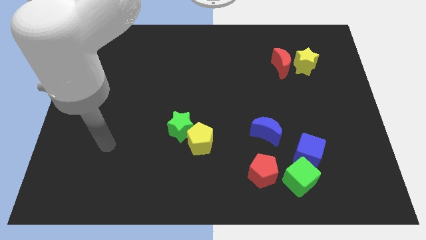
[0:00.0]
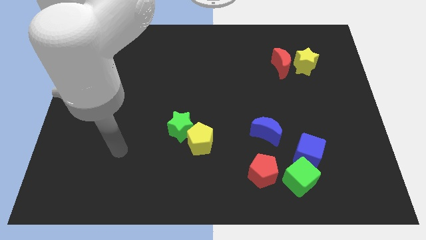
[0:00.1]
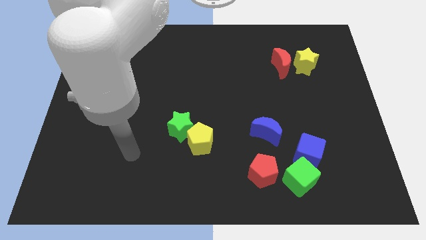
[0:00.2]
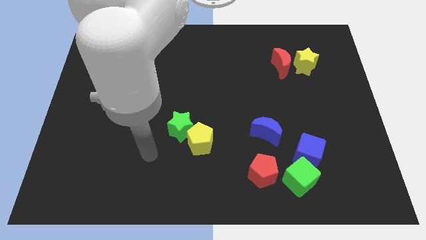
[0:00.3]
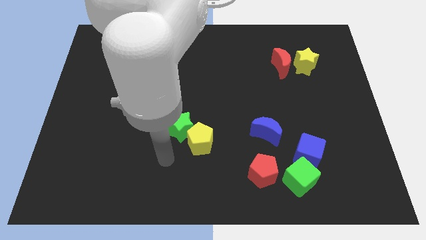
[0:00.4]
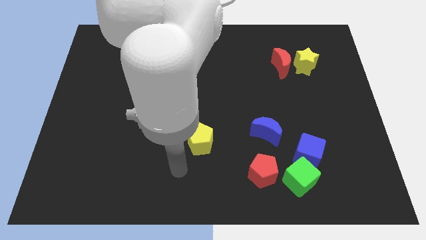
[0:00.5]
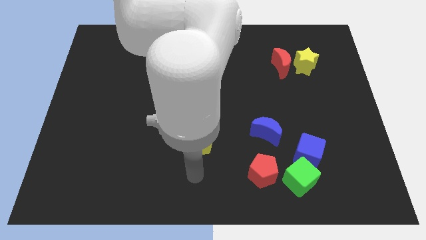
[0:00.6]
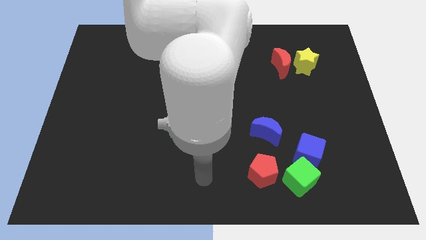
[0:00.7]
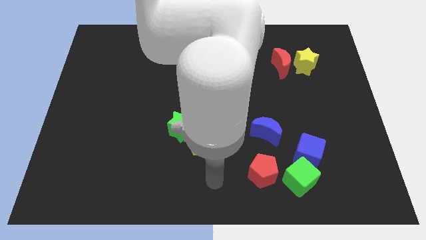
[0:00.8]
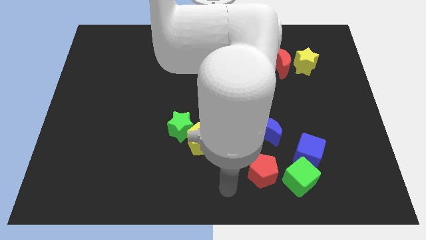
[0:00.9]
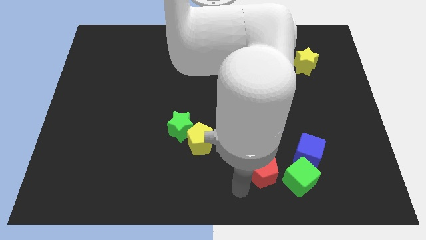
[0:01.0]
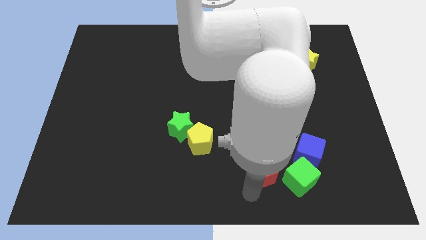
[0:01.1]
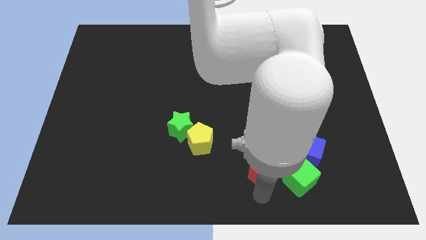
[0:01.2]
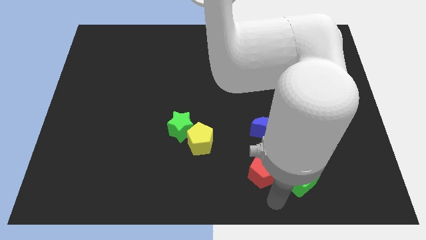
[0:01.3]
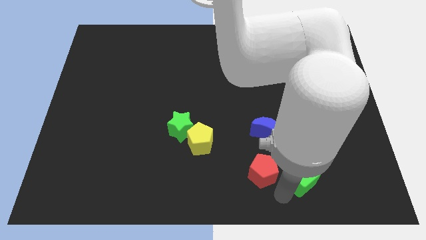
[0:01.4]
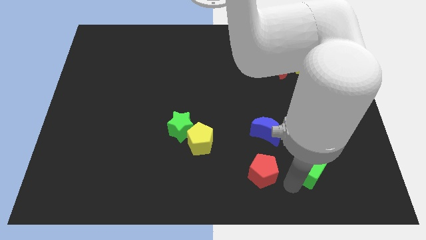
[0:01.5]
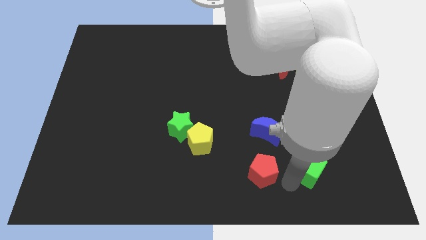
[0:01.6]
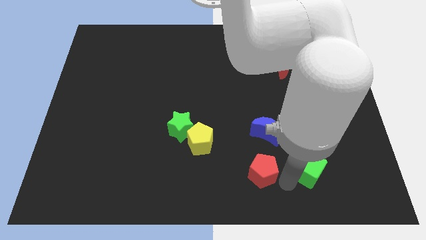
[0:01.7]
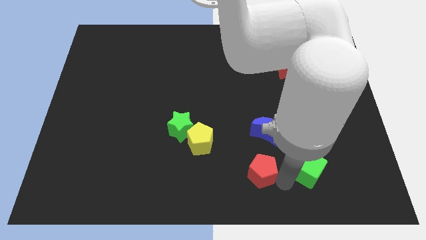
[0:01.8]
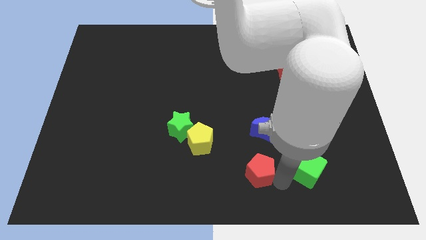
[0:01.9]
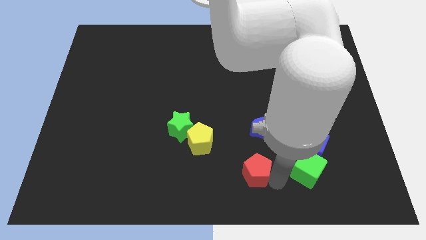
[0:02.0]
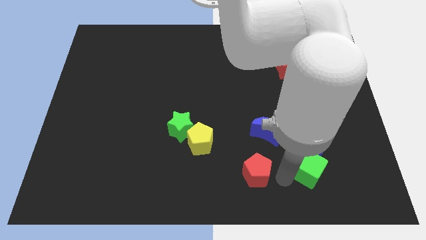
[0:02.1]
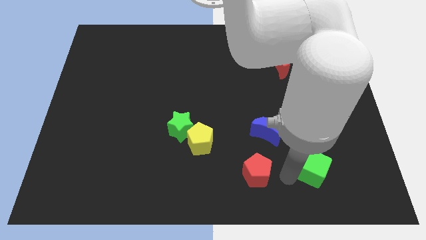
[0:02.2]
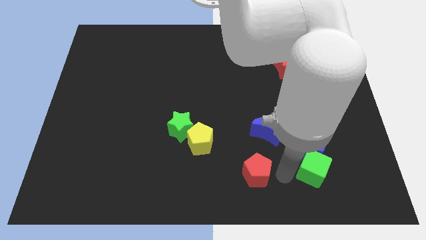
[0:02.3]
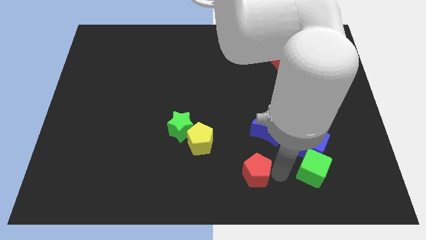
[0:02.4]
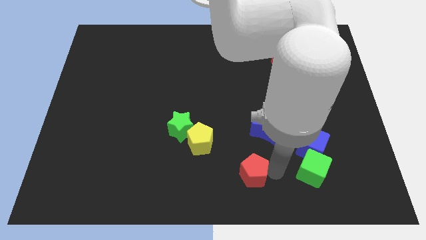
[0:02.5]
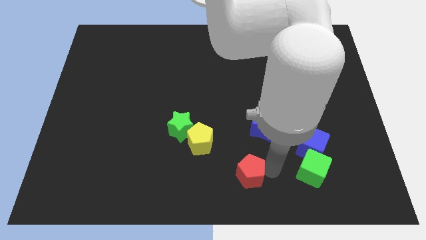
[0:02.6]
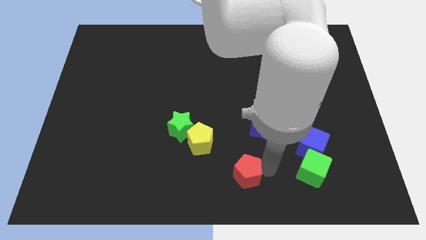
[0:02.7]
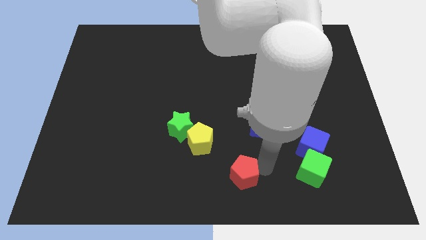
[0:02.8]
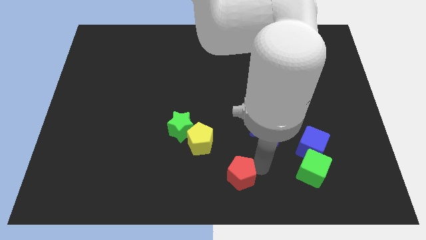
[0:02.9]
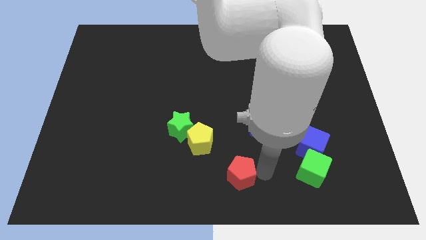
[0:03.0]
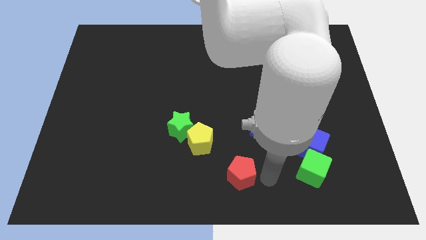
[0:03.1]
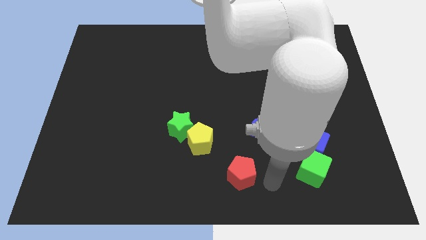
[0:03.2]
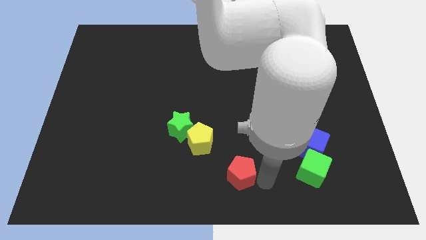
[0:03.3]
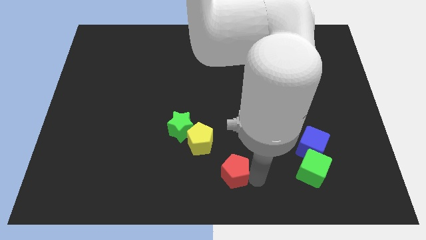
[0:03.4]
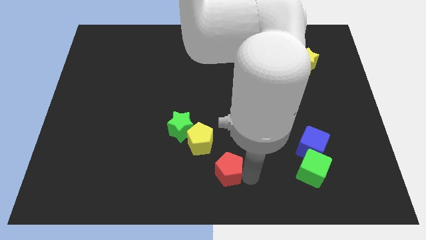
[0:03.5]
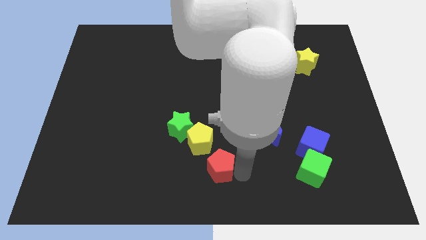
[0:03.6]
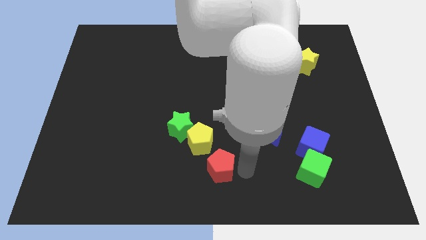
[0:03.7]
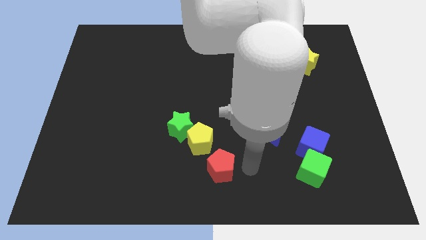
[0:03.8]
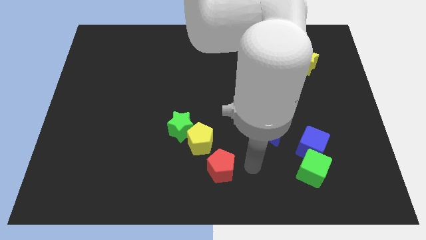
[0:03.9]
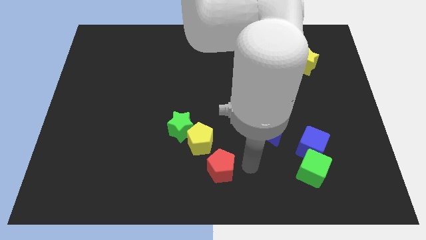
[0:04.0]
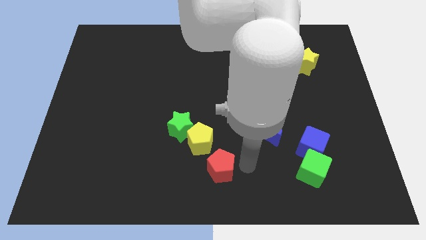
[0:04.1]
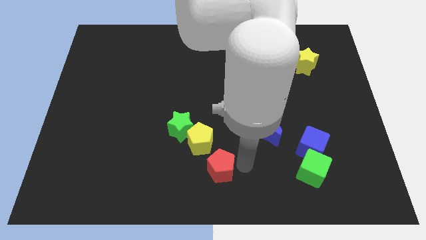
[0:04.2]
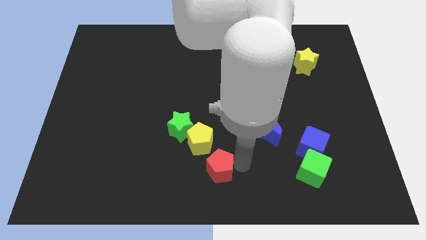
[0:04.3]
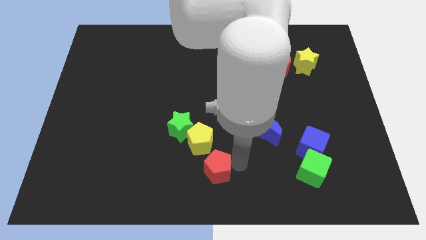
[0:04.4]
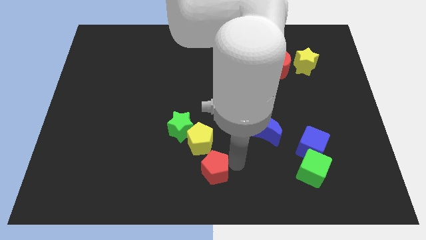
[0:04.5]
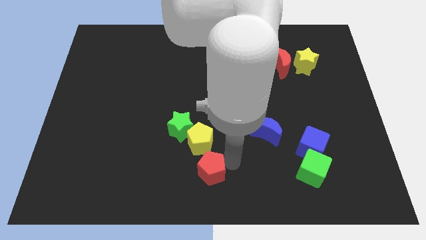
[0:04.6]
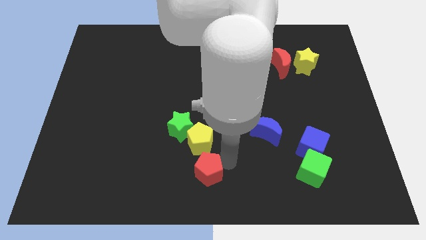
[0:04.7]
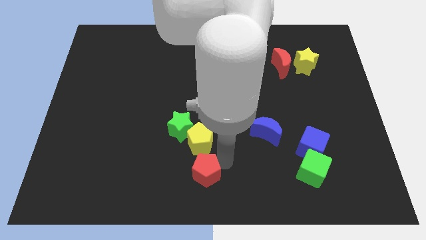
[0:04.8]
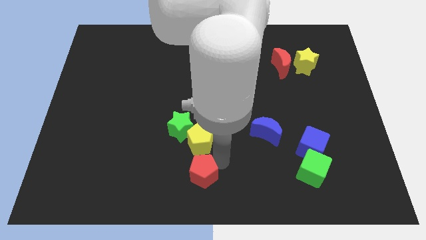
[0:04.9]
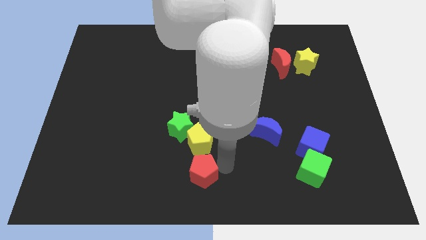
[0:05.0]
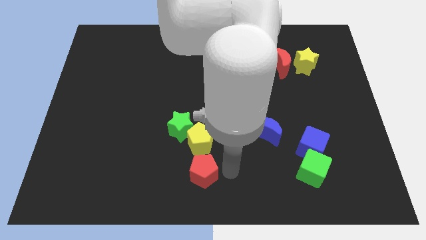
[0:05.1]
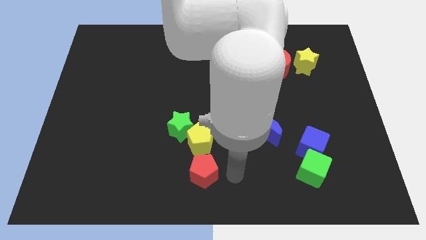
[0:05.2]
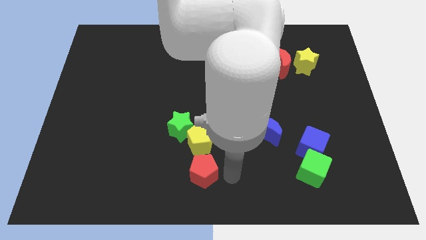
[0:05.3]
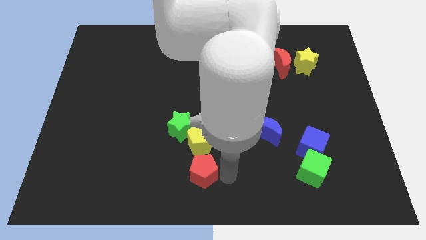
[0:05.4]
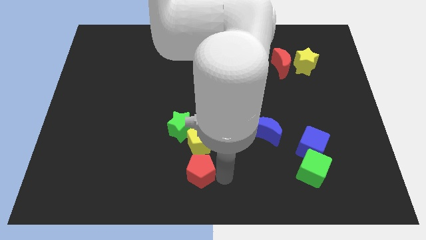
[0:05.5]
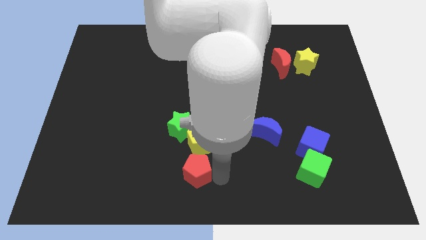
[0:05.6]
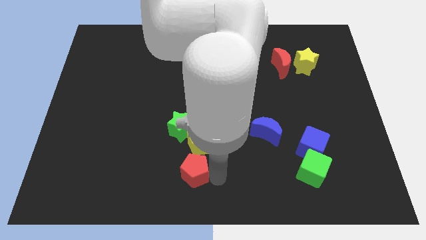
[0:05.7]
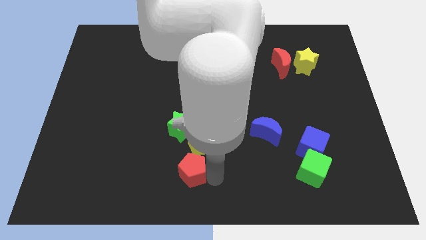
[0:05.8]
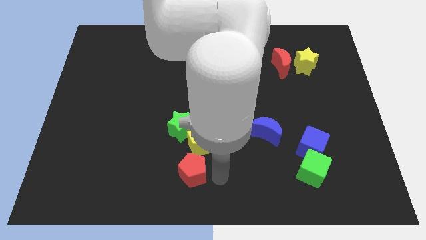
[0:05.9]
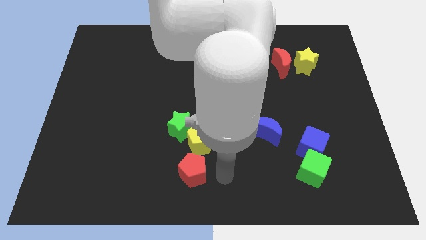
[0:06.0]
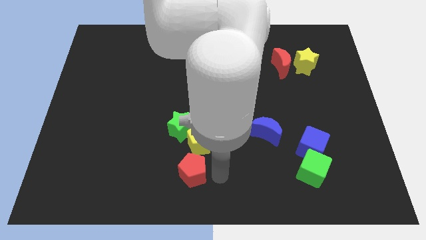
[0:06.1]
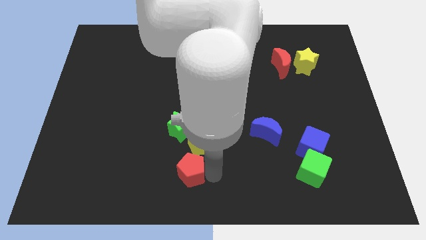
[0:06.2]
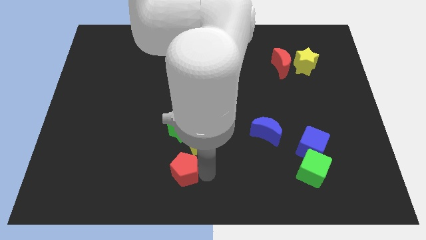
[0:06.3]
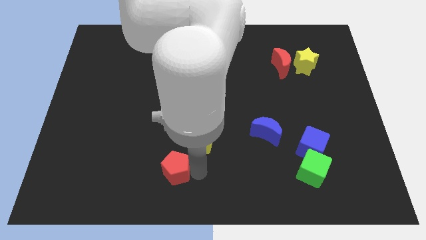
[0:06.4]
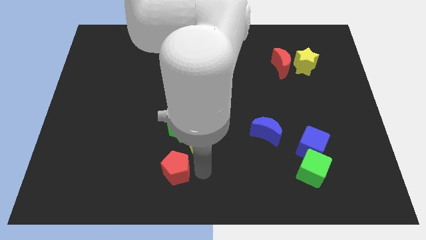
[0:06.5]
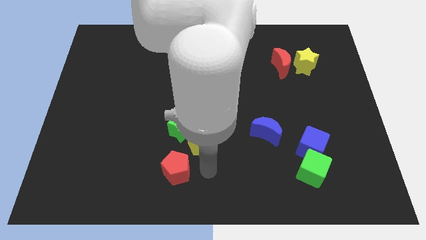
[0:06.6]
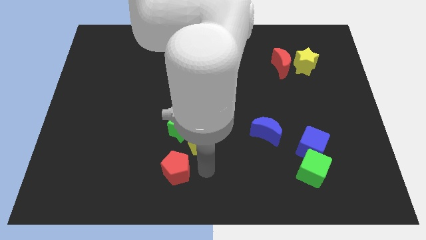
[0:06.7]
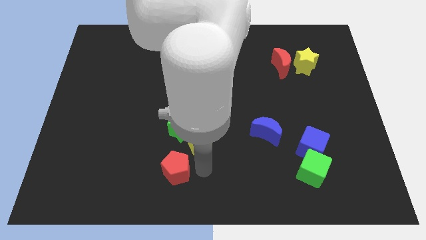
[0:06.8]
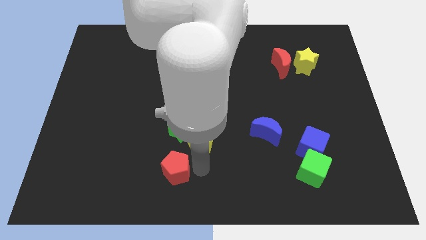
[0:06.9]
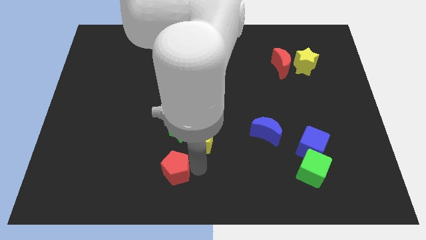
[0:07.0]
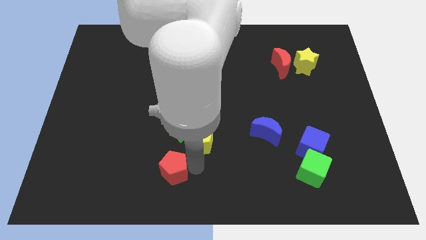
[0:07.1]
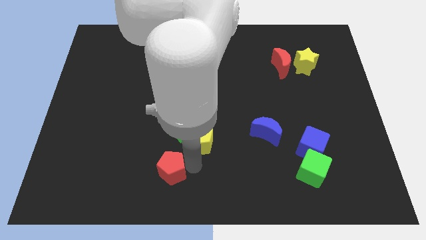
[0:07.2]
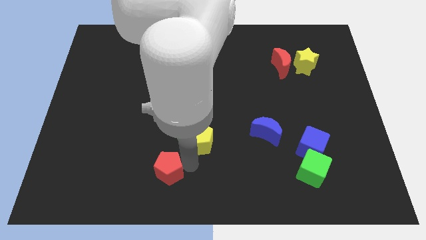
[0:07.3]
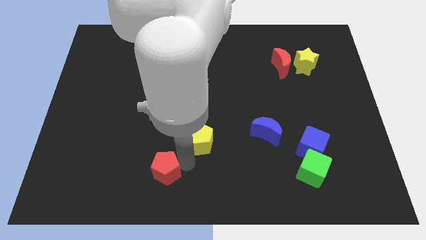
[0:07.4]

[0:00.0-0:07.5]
slide the red pentagon to the left

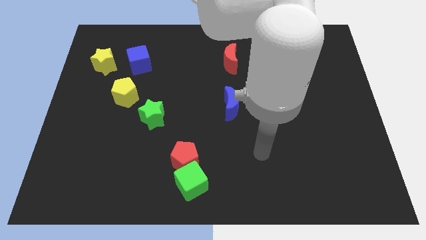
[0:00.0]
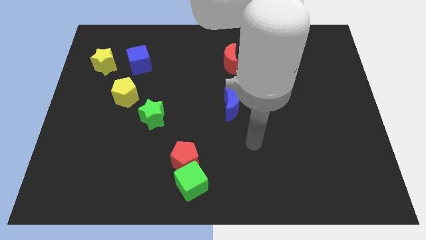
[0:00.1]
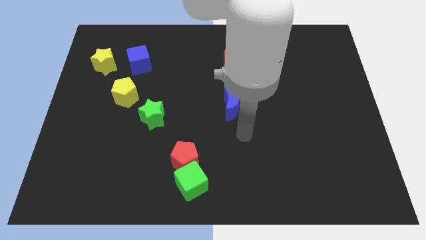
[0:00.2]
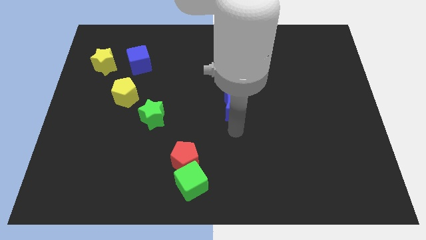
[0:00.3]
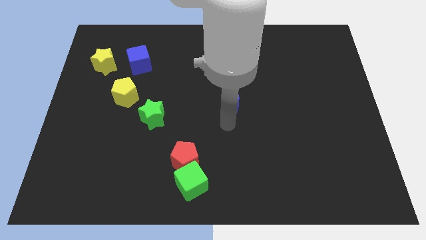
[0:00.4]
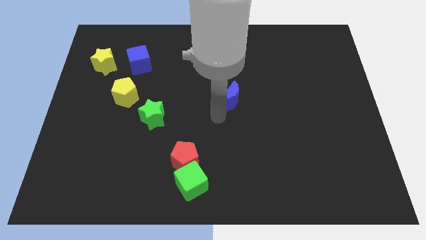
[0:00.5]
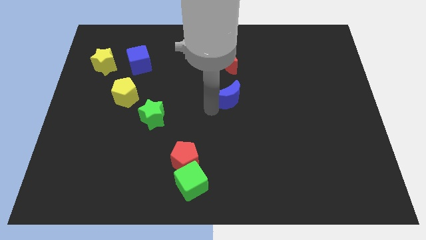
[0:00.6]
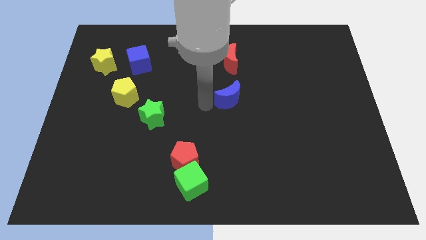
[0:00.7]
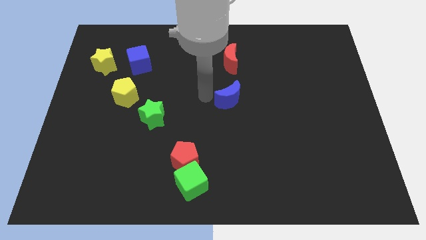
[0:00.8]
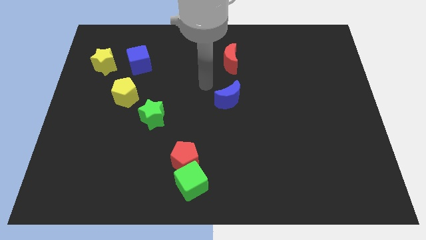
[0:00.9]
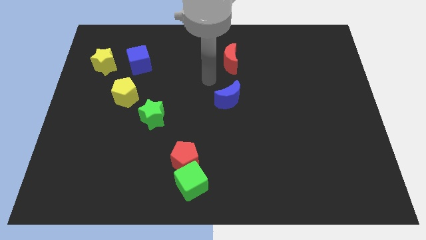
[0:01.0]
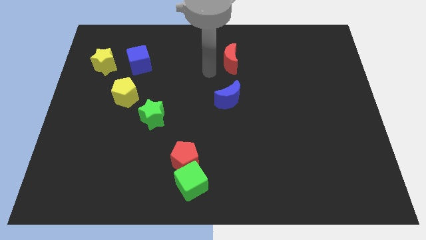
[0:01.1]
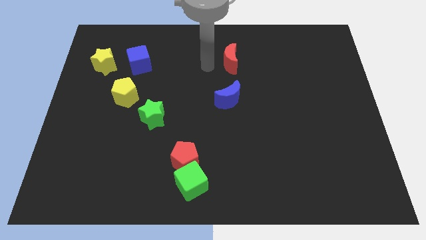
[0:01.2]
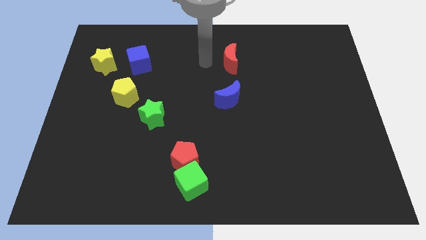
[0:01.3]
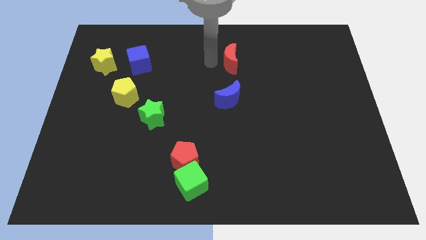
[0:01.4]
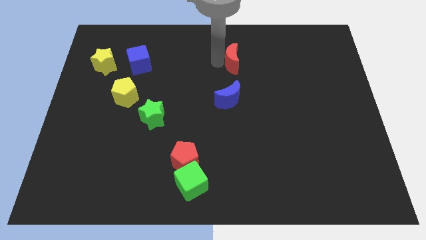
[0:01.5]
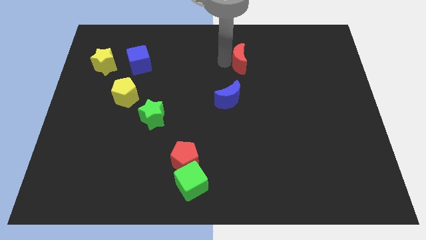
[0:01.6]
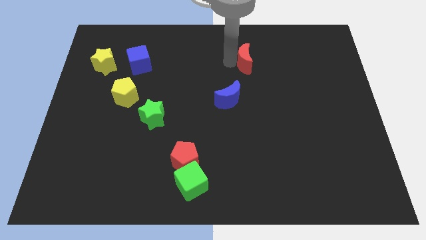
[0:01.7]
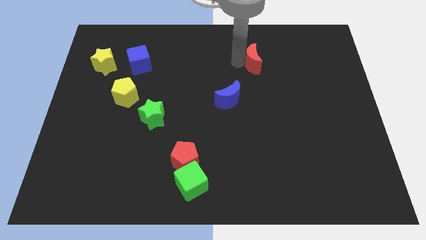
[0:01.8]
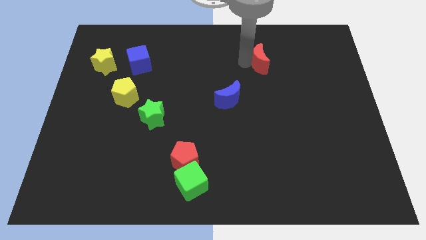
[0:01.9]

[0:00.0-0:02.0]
slightly slide the red moon right
